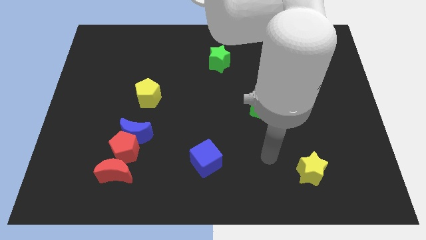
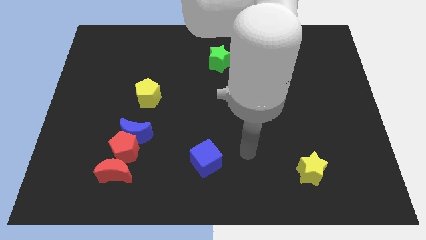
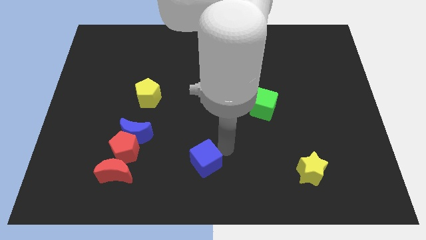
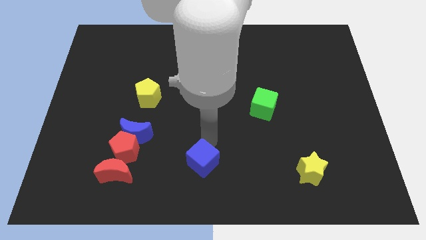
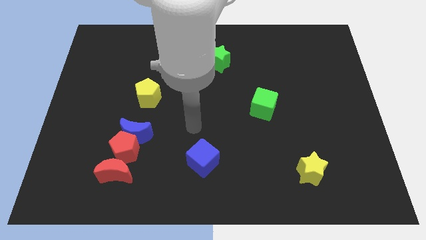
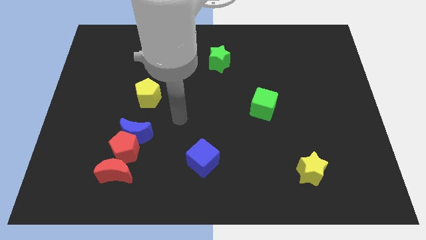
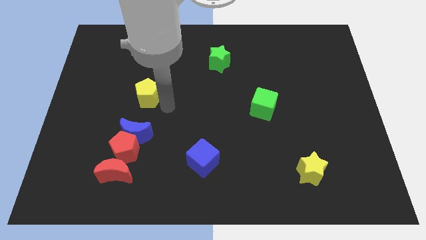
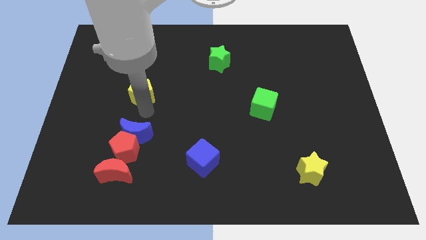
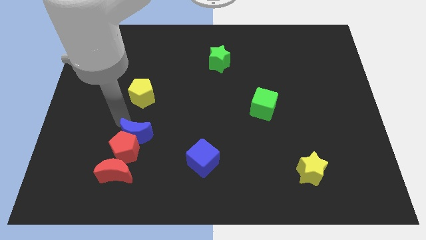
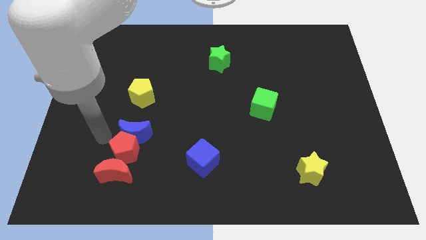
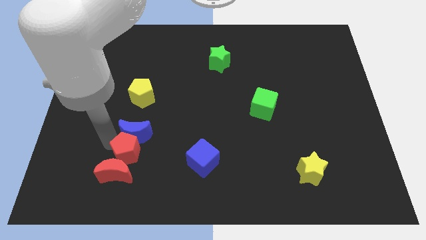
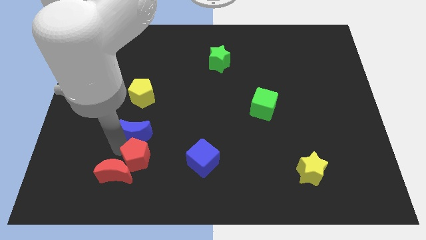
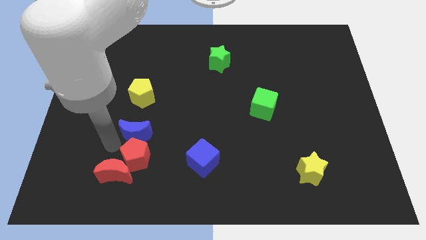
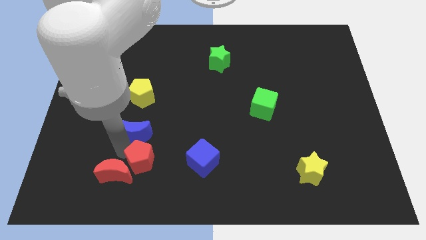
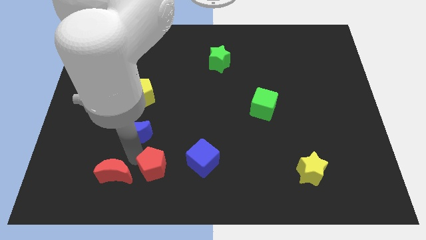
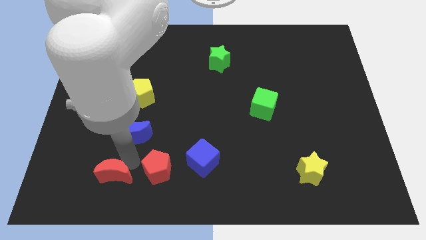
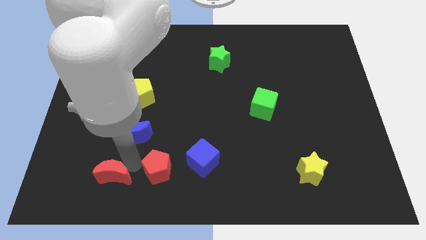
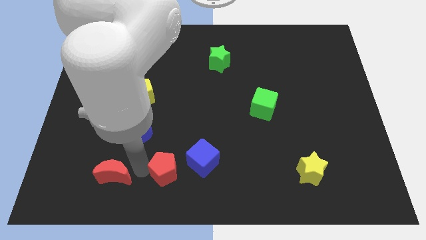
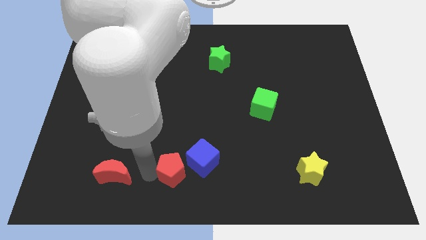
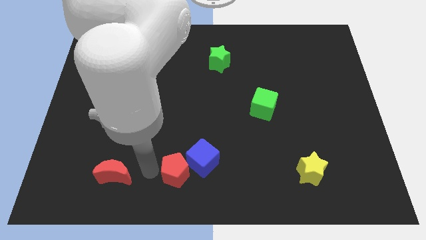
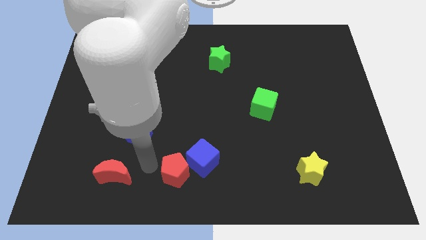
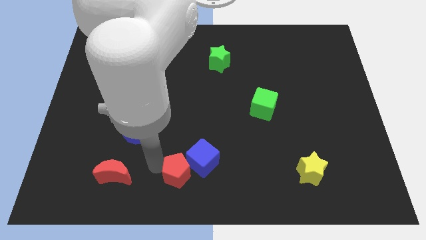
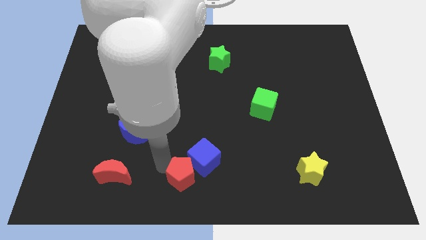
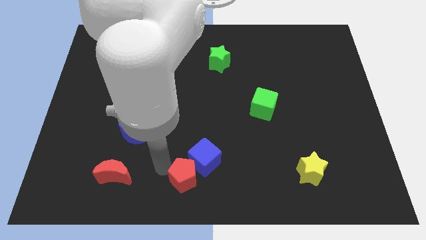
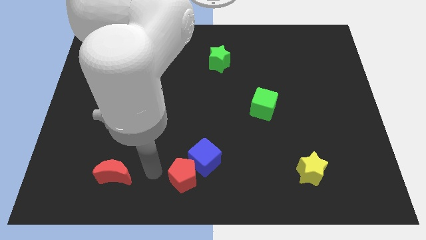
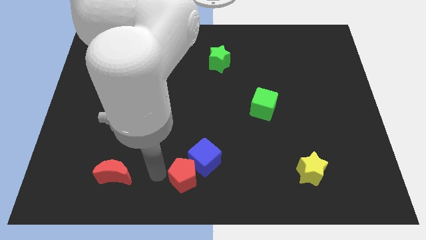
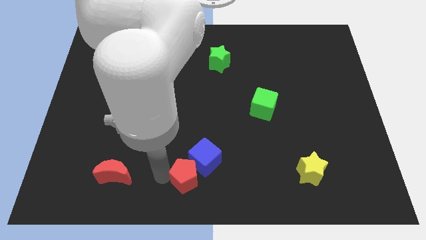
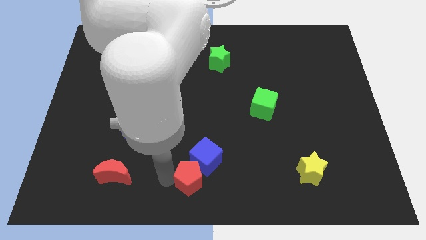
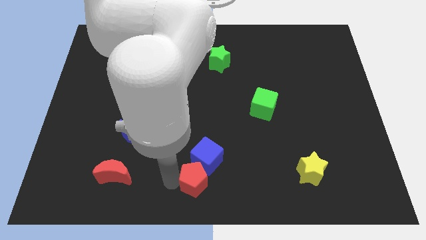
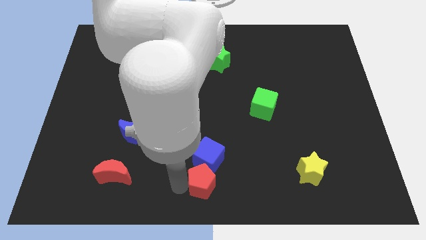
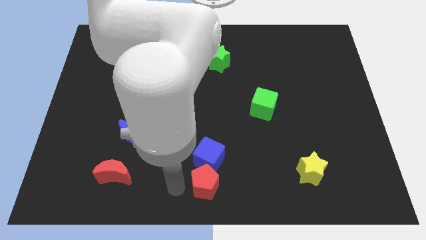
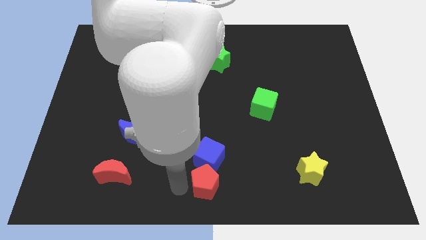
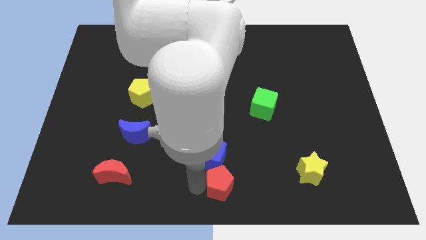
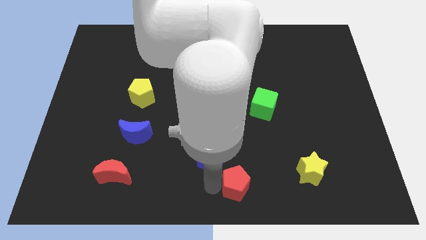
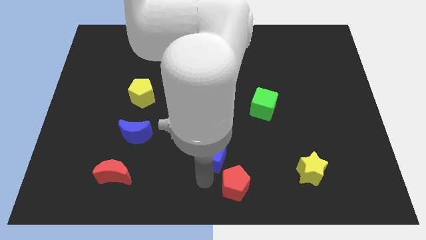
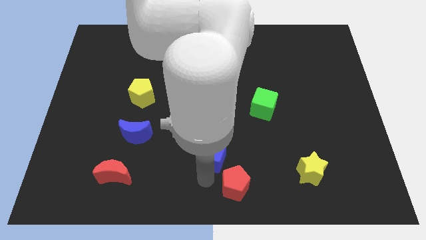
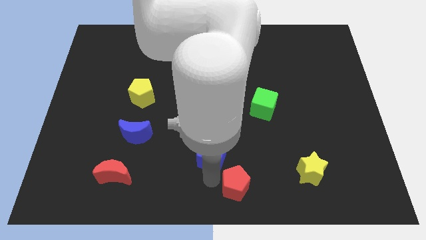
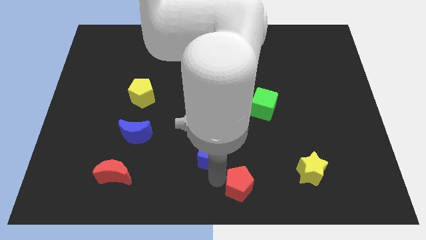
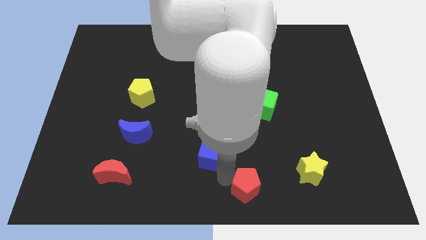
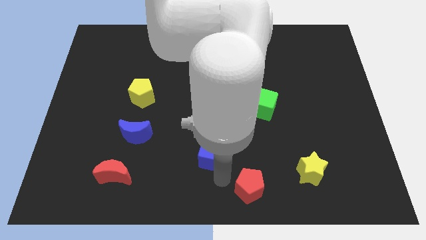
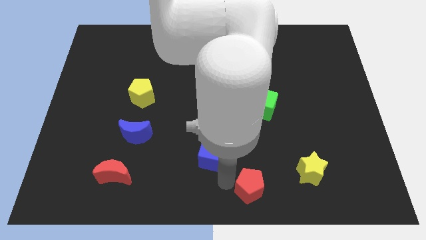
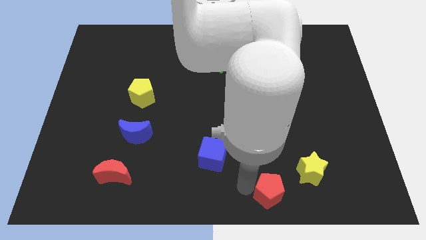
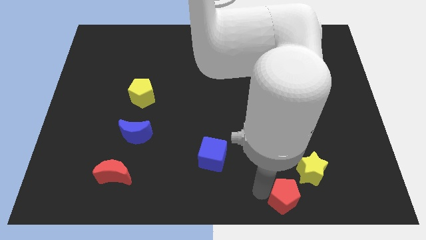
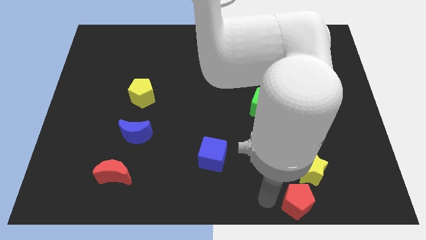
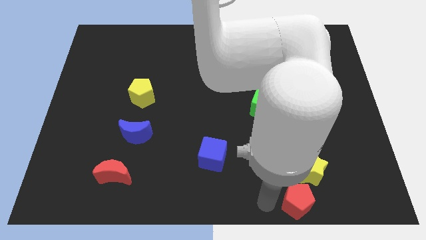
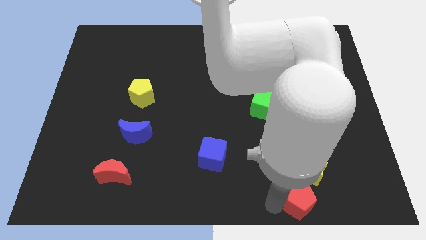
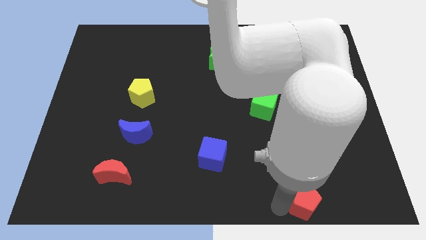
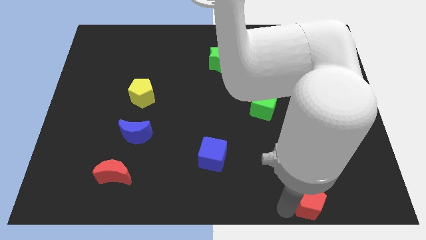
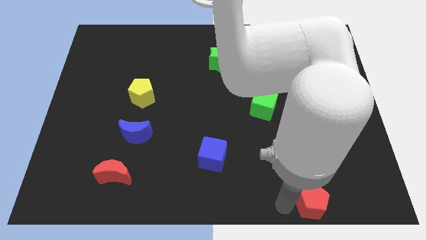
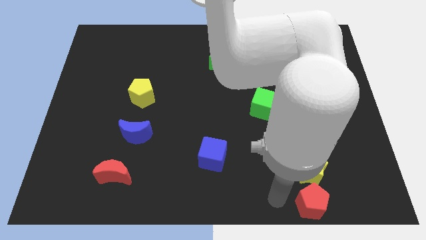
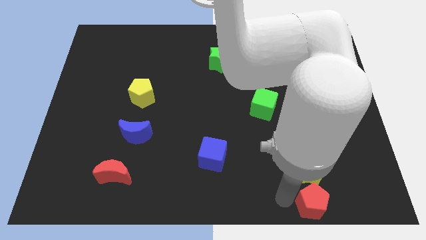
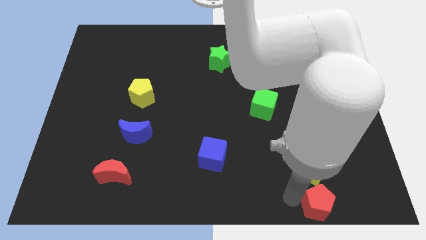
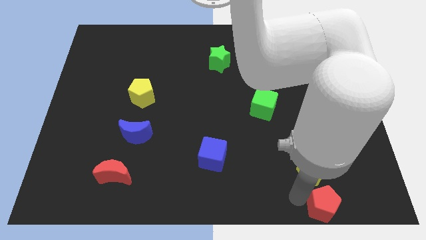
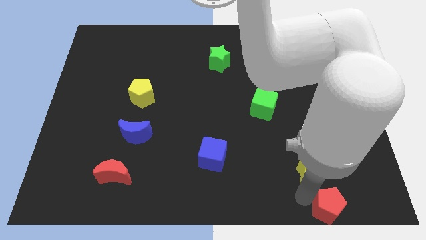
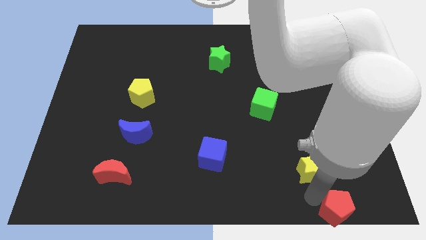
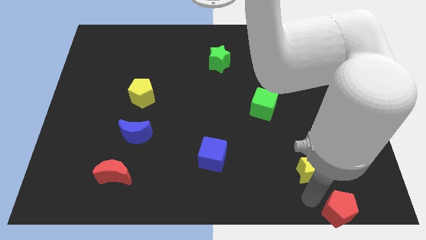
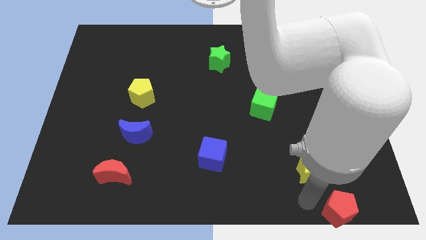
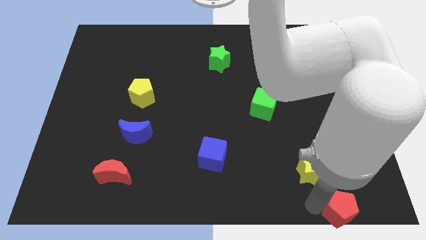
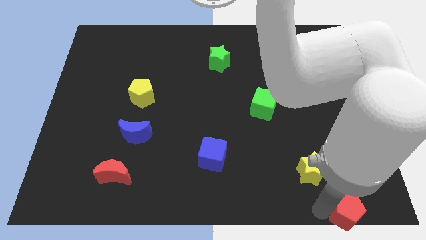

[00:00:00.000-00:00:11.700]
move the red pentagon to the bottom right of the board
